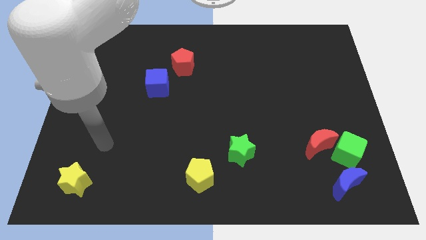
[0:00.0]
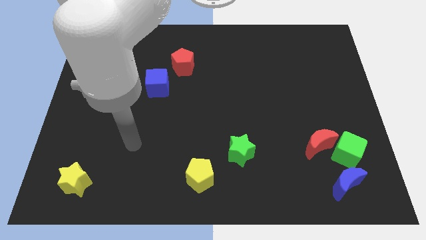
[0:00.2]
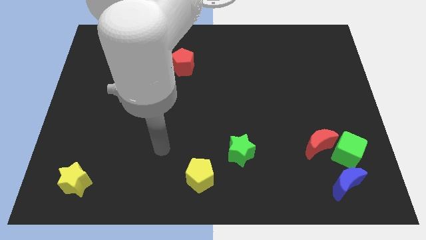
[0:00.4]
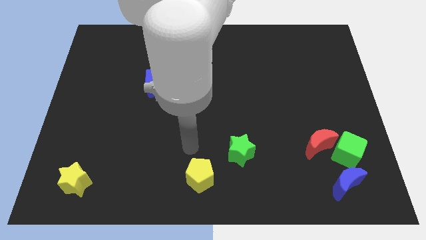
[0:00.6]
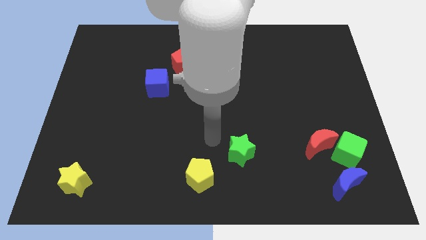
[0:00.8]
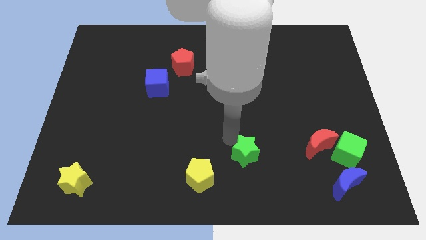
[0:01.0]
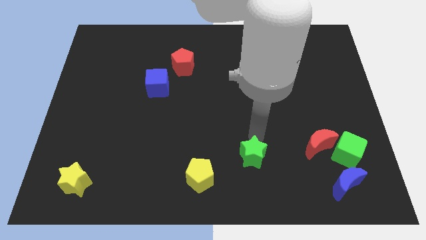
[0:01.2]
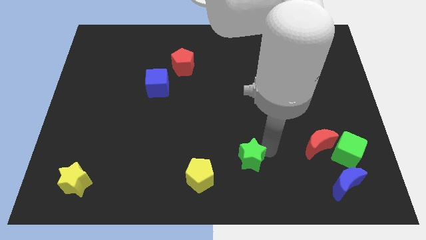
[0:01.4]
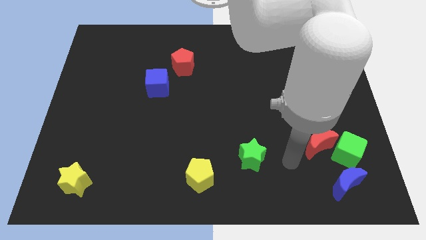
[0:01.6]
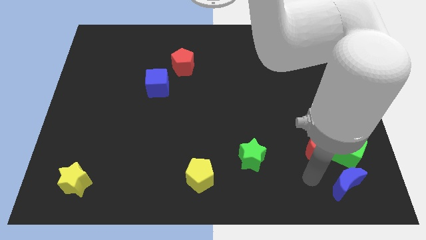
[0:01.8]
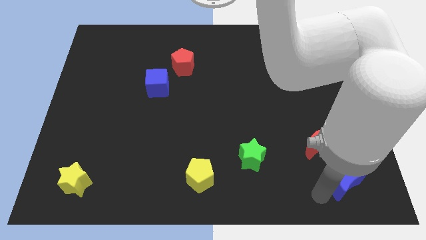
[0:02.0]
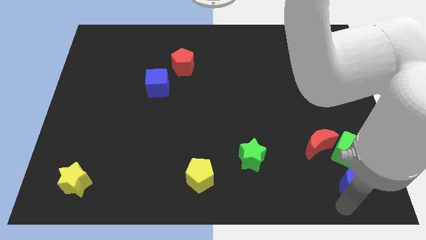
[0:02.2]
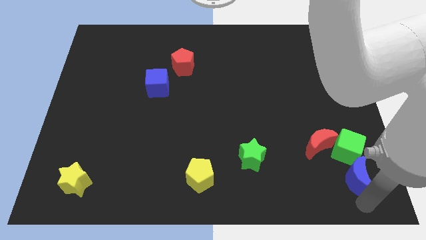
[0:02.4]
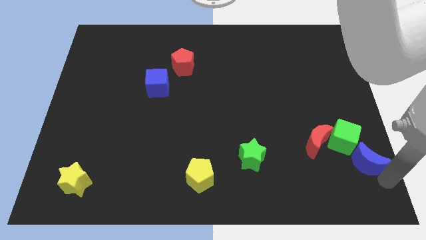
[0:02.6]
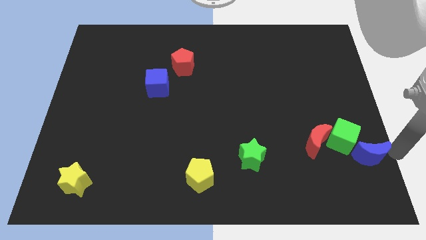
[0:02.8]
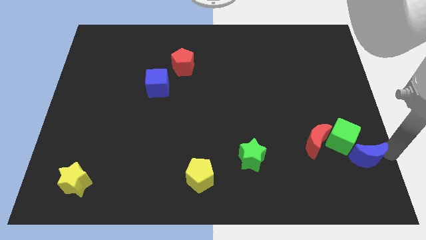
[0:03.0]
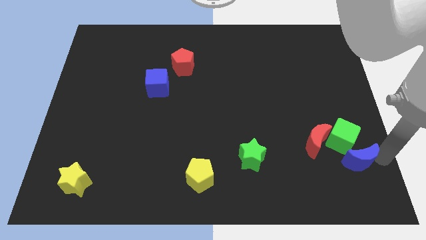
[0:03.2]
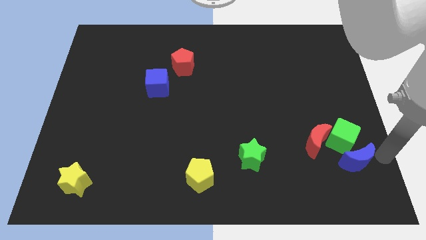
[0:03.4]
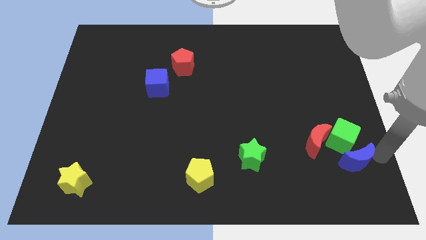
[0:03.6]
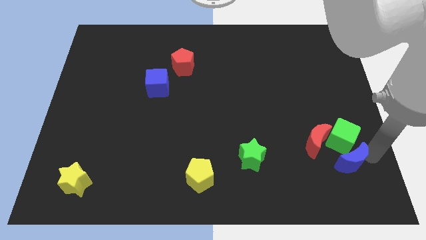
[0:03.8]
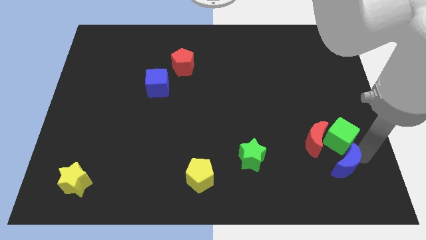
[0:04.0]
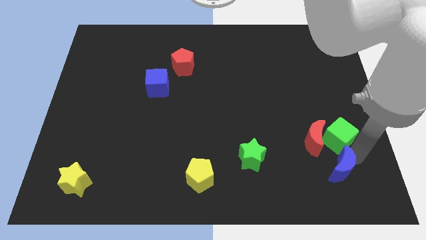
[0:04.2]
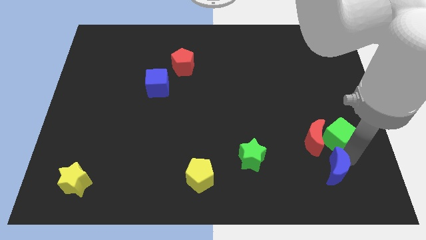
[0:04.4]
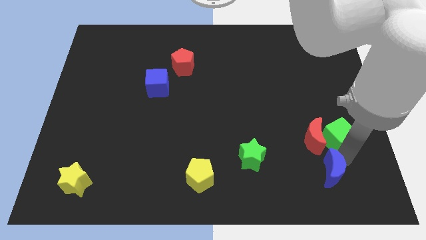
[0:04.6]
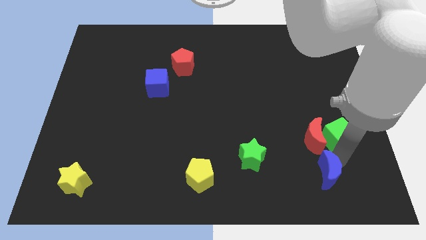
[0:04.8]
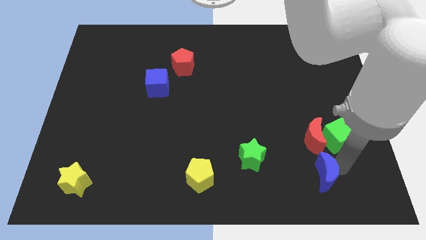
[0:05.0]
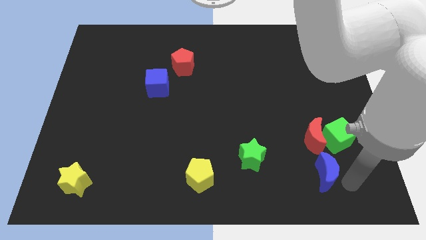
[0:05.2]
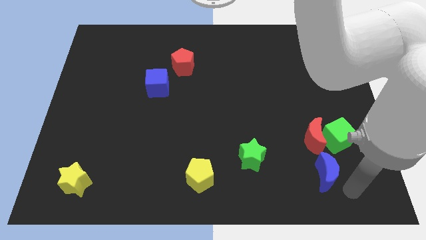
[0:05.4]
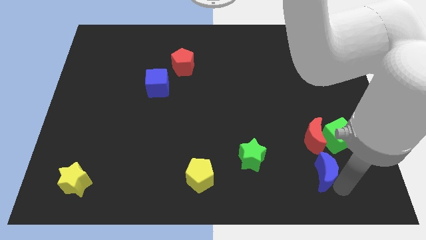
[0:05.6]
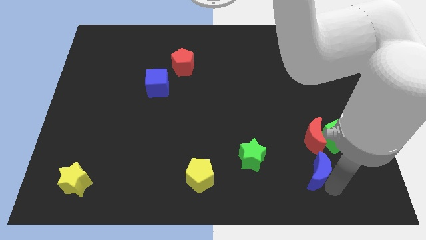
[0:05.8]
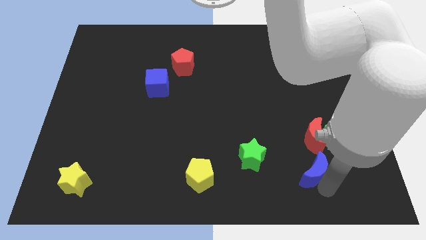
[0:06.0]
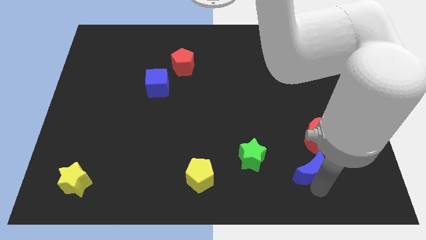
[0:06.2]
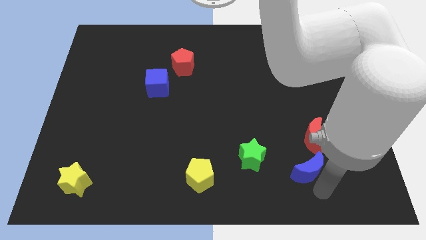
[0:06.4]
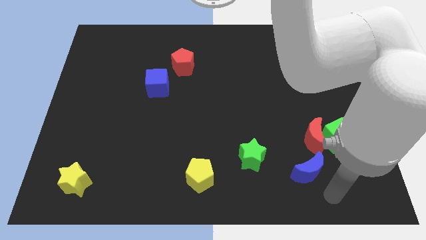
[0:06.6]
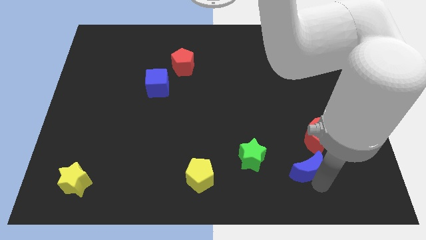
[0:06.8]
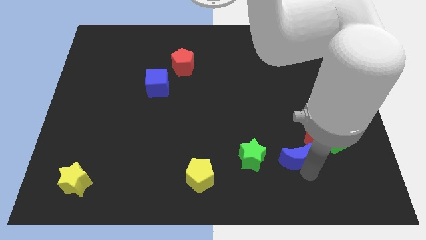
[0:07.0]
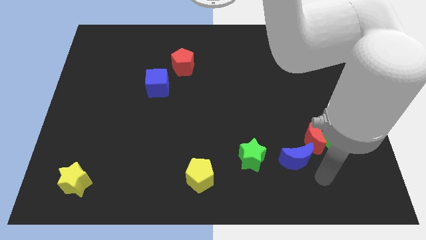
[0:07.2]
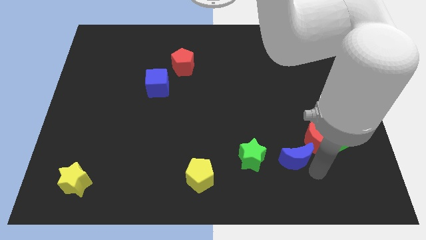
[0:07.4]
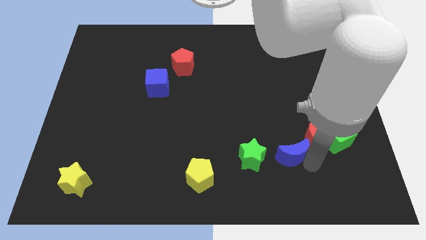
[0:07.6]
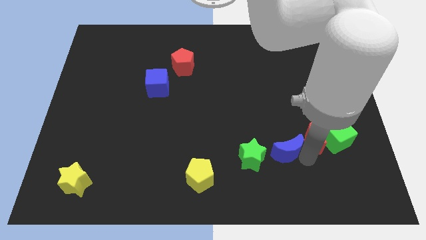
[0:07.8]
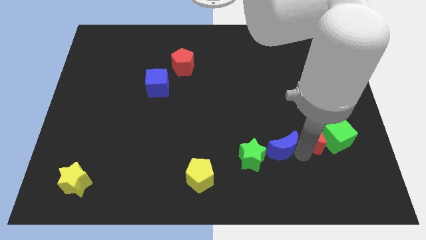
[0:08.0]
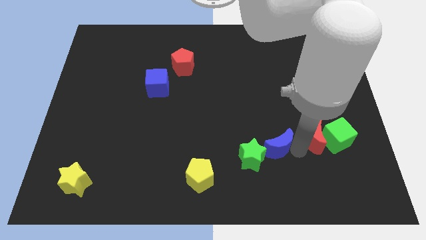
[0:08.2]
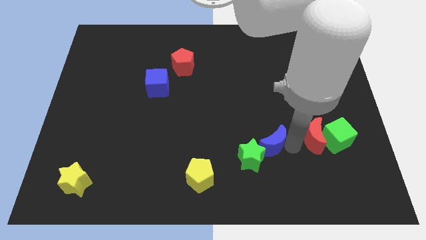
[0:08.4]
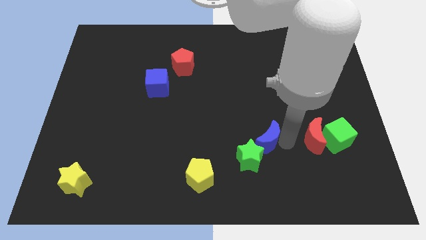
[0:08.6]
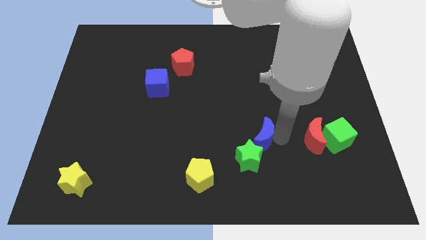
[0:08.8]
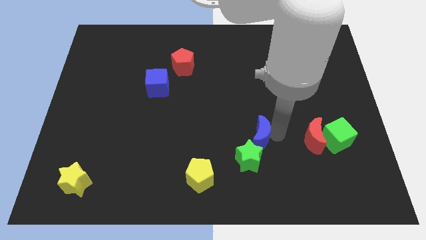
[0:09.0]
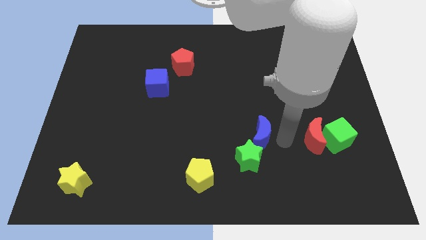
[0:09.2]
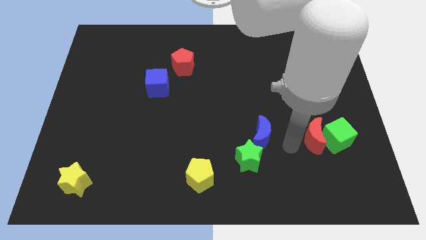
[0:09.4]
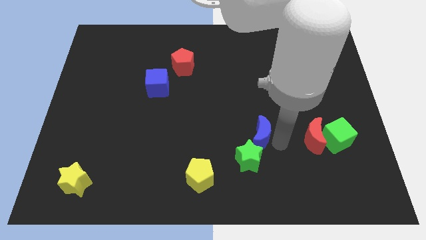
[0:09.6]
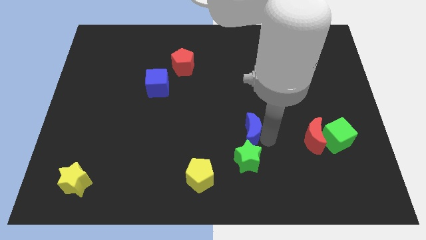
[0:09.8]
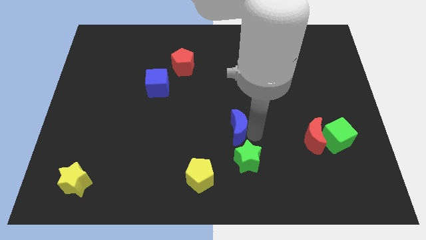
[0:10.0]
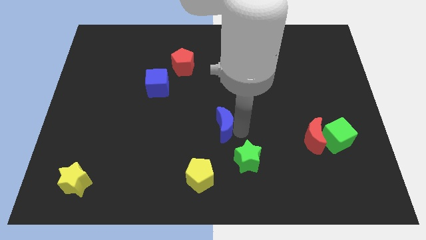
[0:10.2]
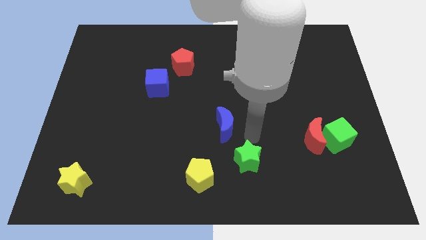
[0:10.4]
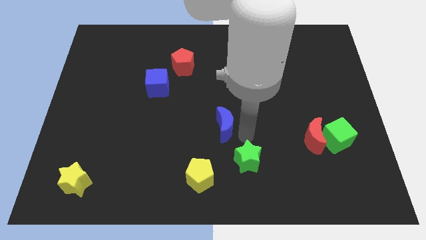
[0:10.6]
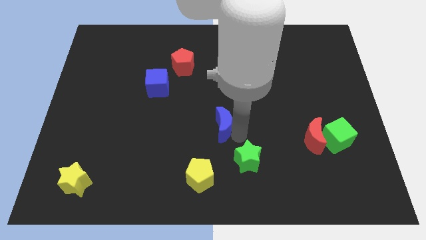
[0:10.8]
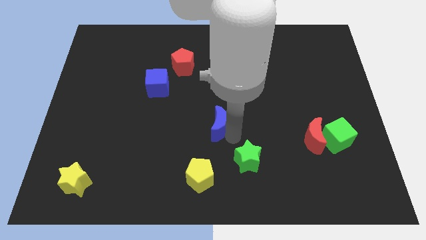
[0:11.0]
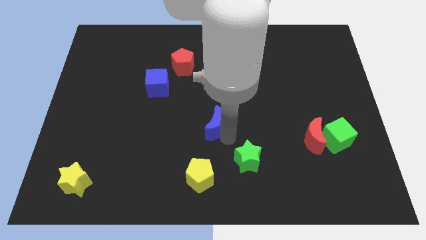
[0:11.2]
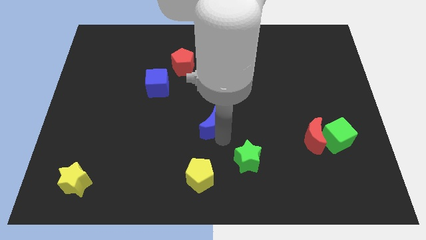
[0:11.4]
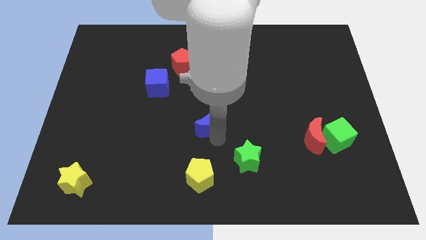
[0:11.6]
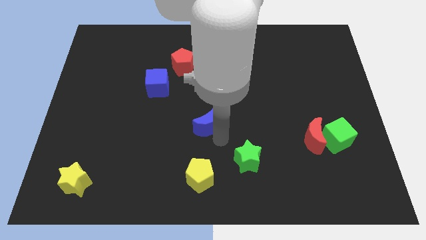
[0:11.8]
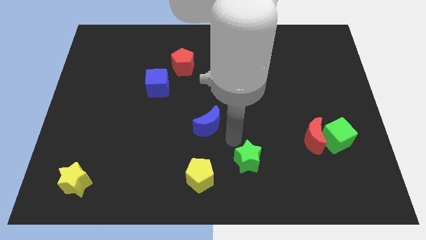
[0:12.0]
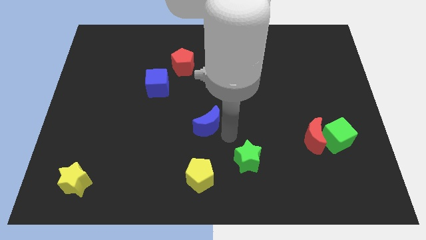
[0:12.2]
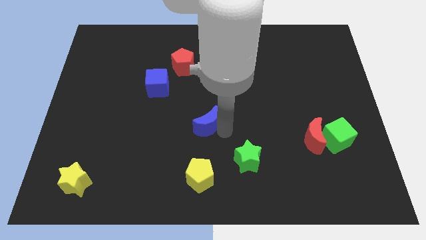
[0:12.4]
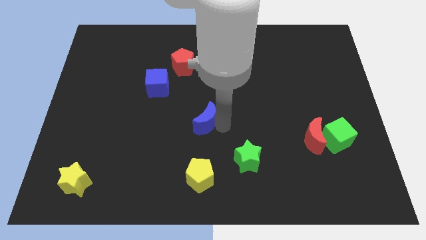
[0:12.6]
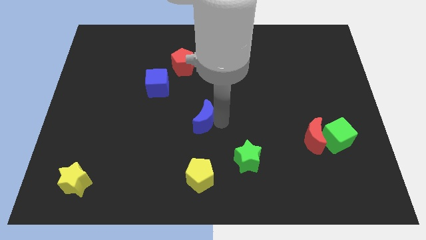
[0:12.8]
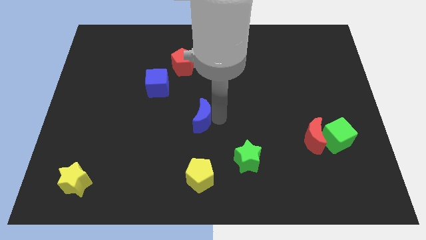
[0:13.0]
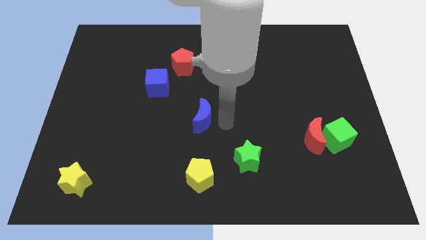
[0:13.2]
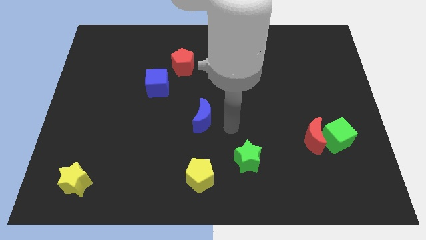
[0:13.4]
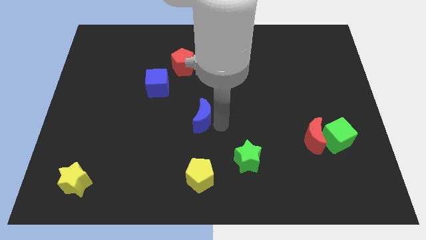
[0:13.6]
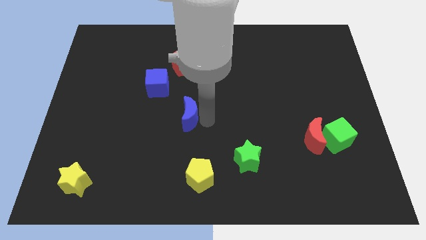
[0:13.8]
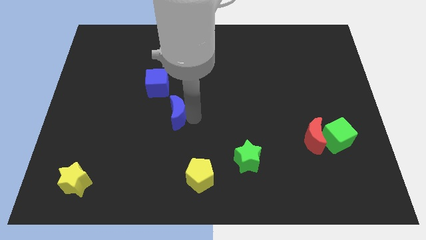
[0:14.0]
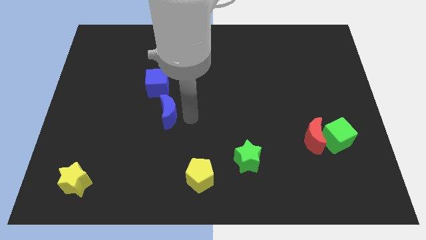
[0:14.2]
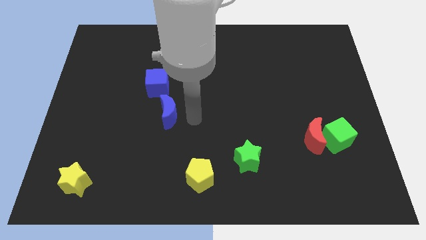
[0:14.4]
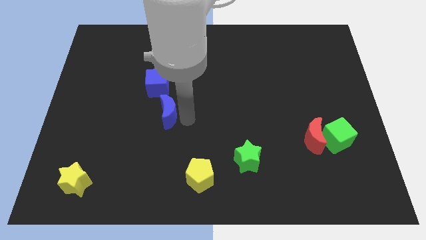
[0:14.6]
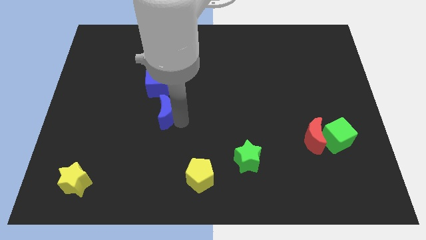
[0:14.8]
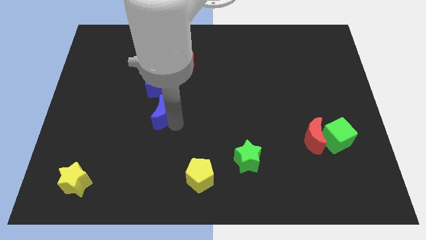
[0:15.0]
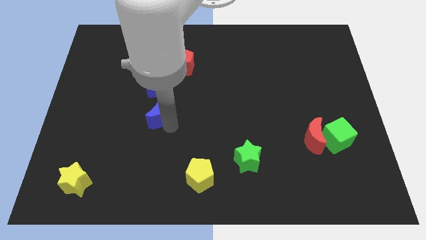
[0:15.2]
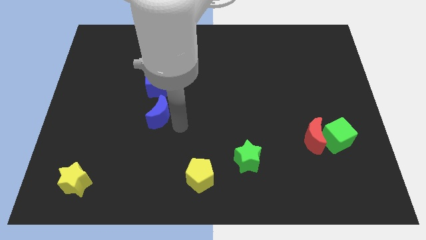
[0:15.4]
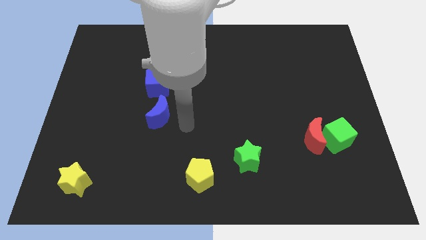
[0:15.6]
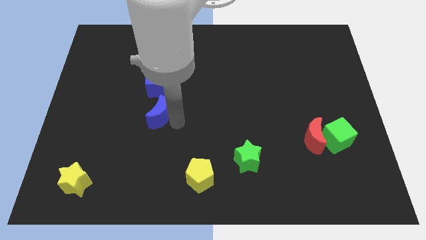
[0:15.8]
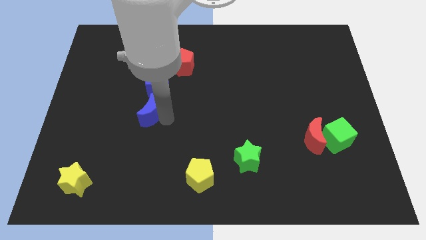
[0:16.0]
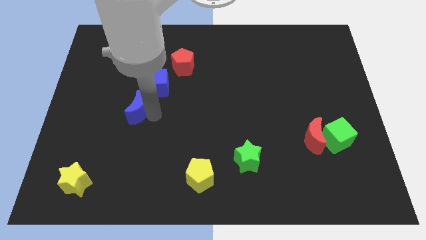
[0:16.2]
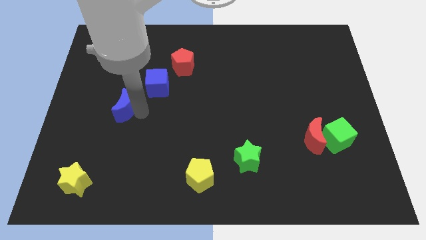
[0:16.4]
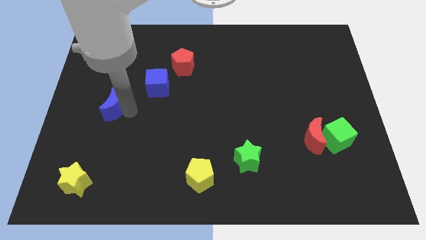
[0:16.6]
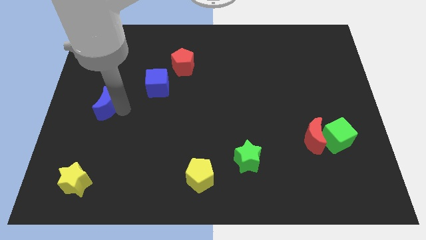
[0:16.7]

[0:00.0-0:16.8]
move the blue moon to the left side of the board
